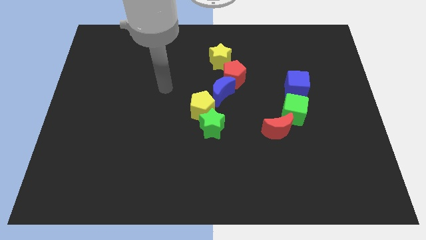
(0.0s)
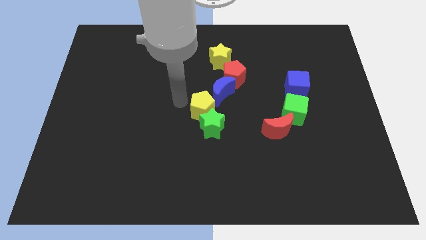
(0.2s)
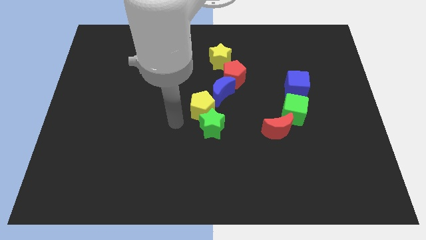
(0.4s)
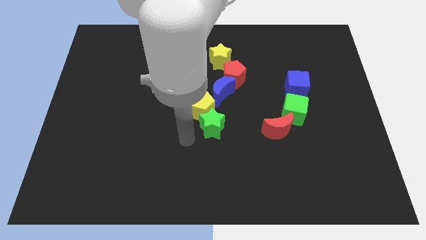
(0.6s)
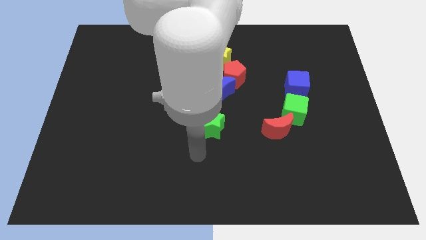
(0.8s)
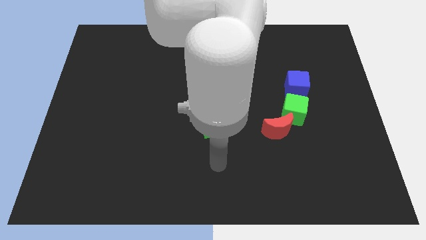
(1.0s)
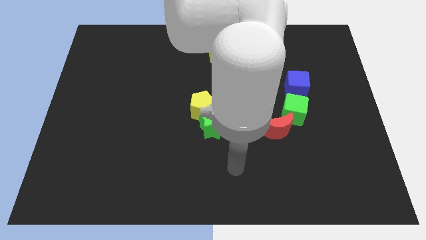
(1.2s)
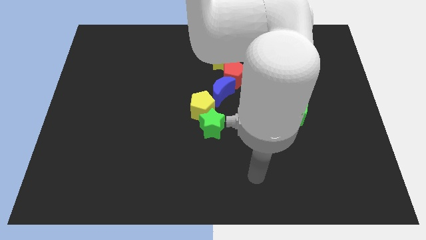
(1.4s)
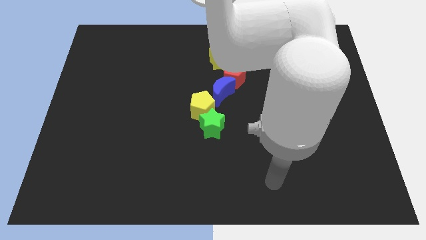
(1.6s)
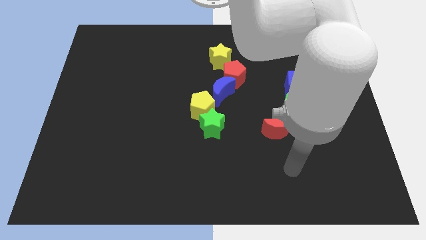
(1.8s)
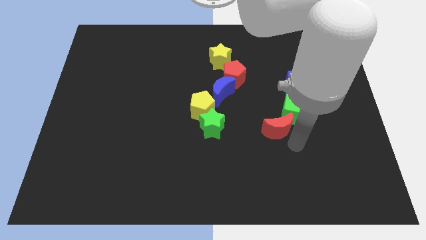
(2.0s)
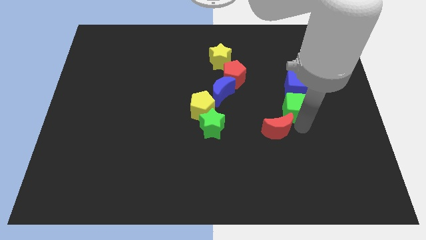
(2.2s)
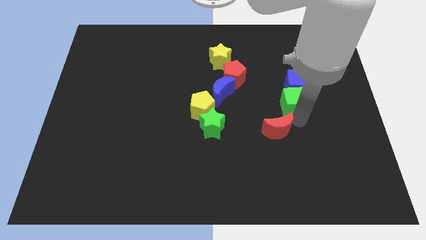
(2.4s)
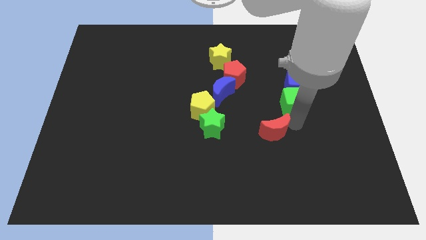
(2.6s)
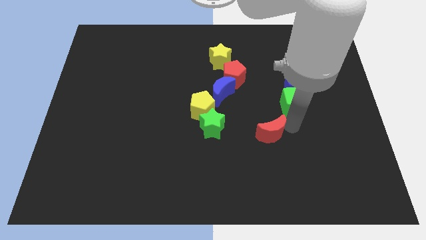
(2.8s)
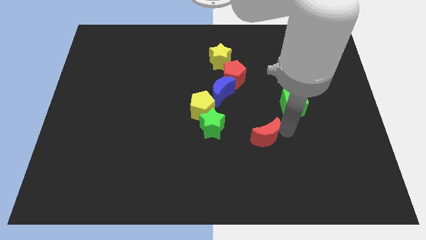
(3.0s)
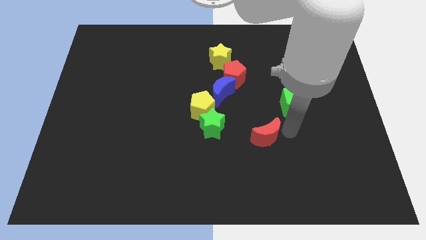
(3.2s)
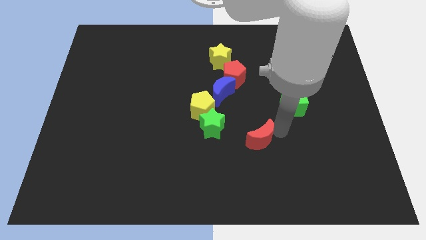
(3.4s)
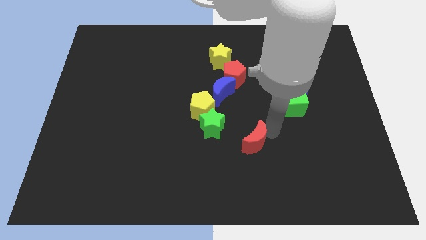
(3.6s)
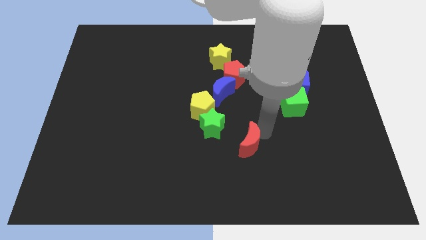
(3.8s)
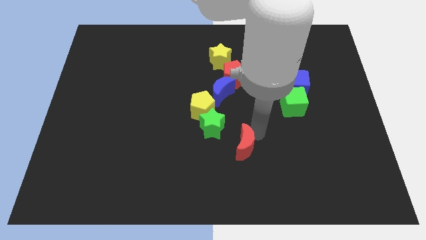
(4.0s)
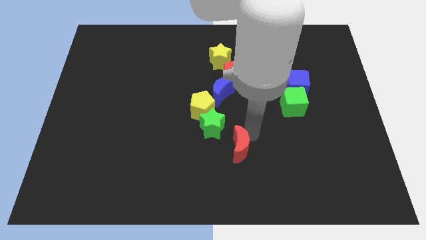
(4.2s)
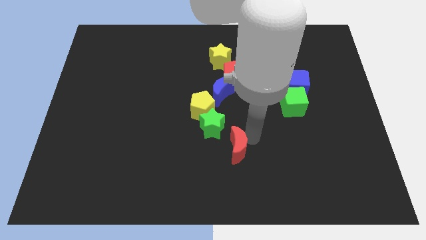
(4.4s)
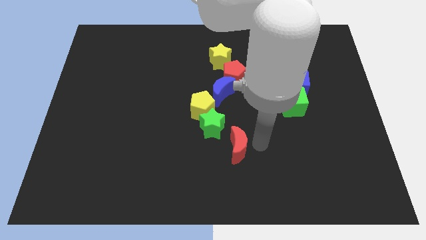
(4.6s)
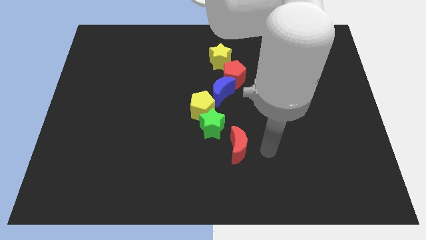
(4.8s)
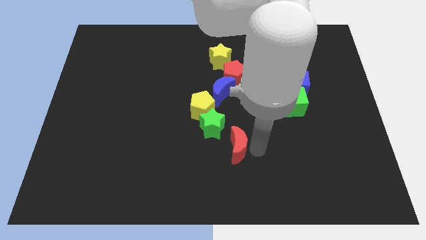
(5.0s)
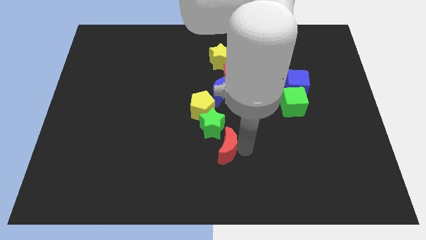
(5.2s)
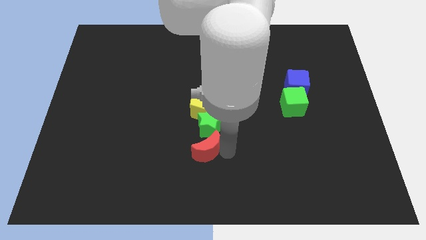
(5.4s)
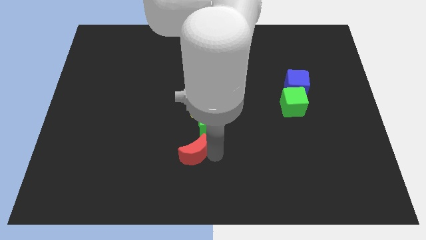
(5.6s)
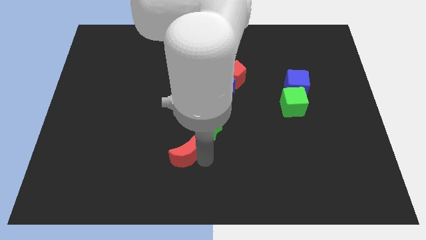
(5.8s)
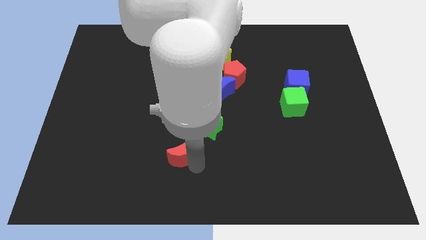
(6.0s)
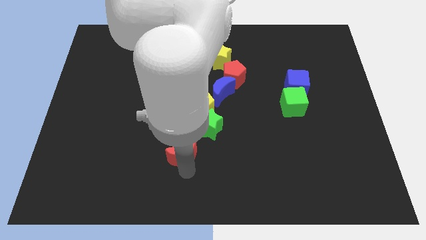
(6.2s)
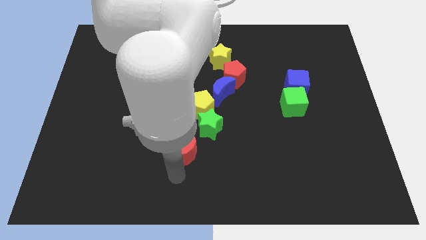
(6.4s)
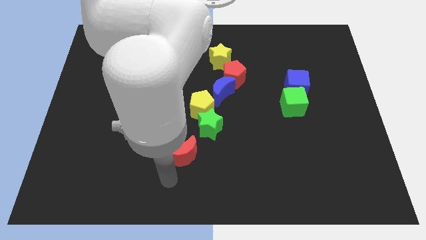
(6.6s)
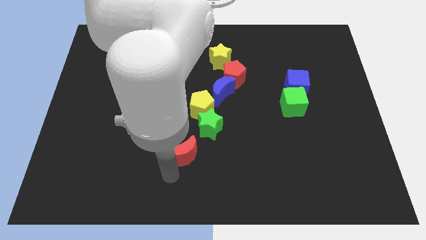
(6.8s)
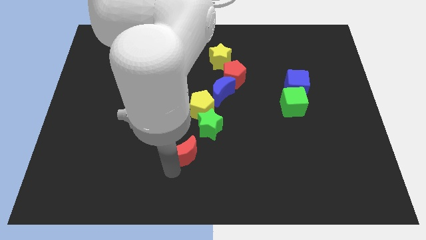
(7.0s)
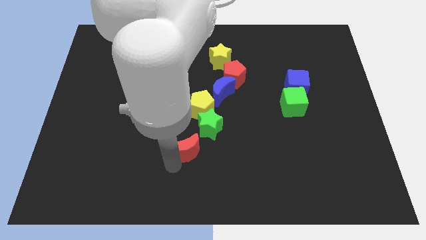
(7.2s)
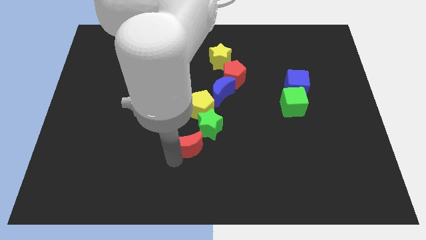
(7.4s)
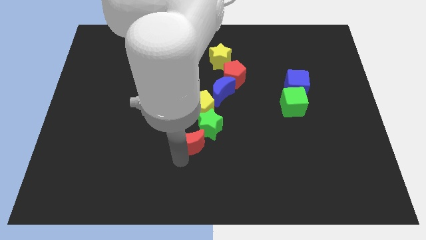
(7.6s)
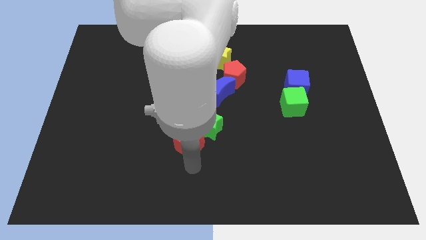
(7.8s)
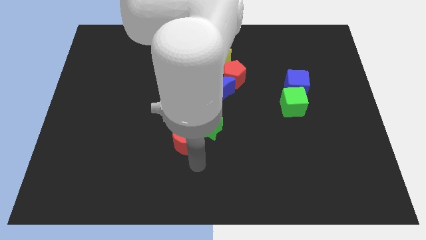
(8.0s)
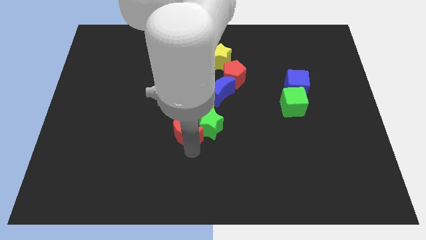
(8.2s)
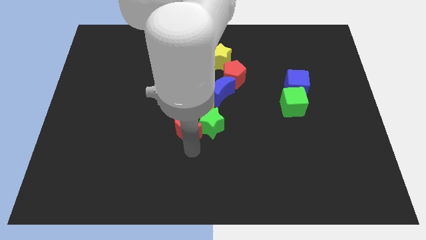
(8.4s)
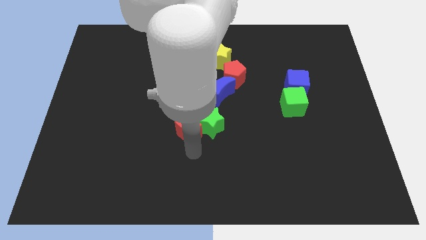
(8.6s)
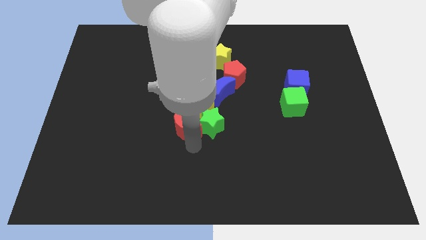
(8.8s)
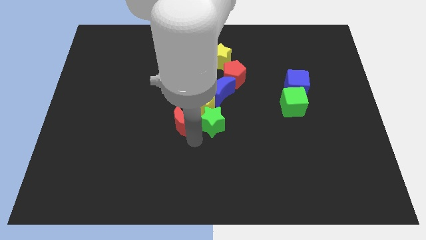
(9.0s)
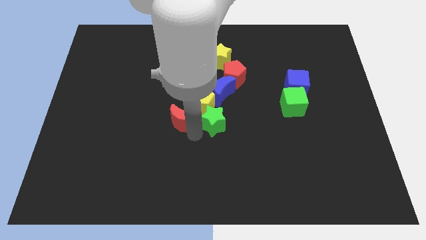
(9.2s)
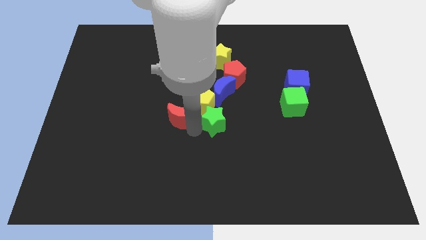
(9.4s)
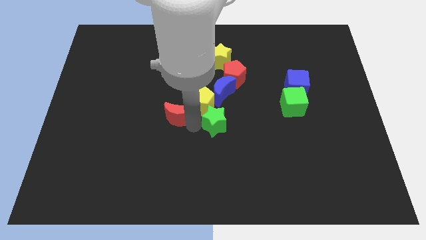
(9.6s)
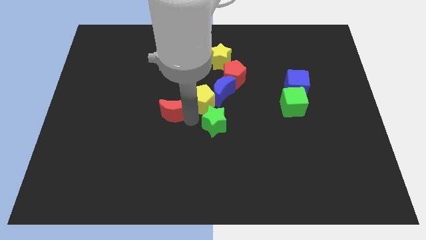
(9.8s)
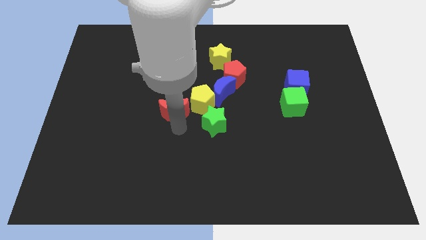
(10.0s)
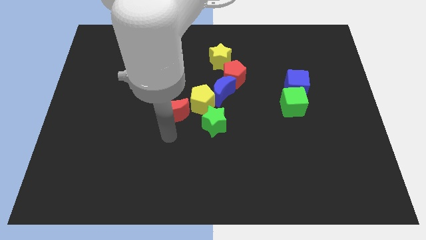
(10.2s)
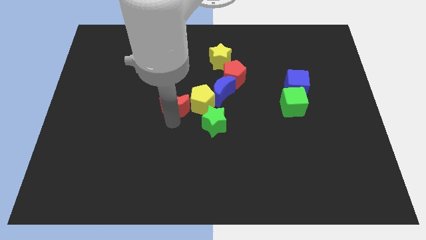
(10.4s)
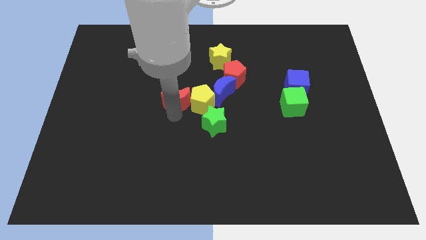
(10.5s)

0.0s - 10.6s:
move the red moon to the top left of the yellow pentagon
